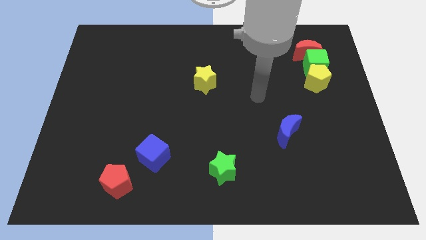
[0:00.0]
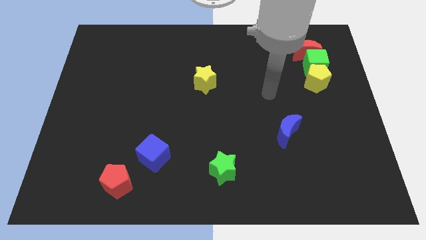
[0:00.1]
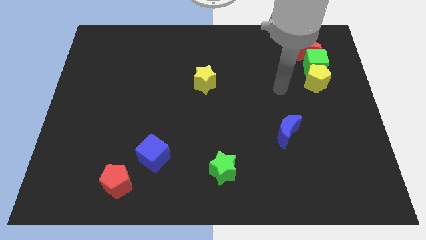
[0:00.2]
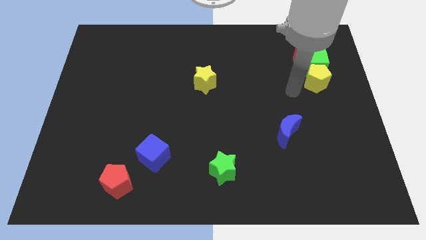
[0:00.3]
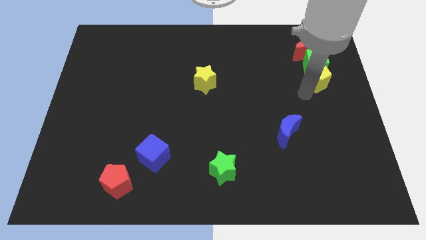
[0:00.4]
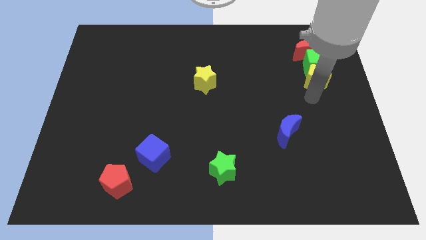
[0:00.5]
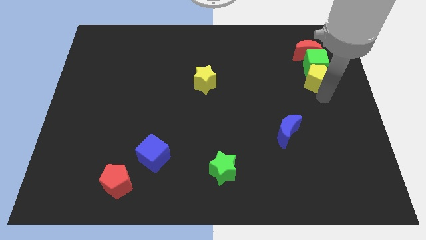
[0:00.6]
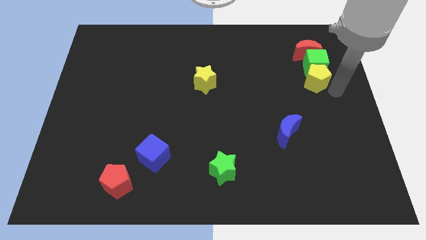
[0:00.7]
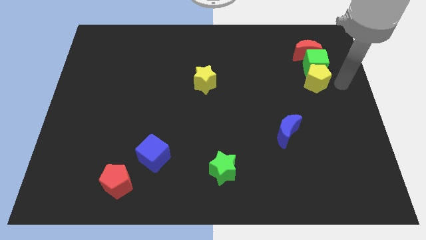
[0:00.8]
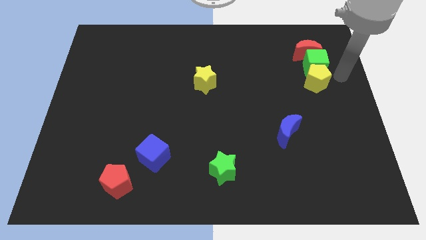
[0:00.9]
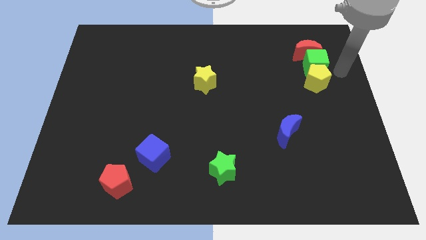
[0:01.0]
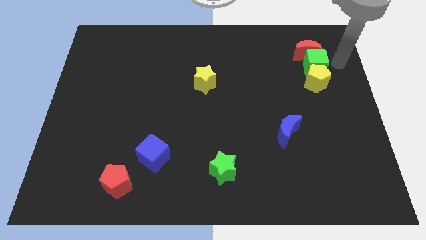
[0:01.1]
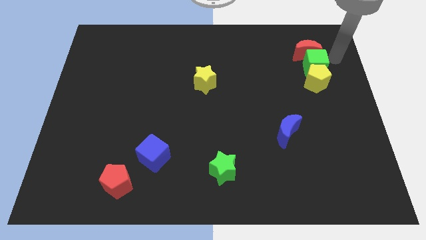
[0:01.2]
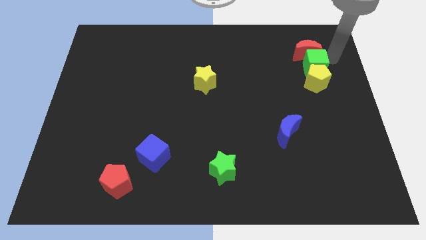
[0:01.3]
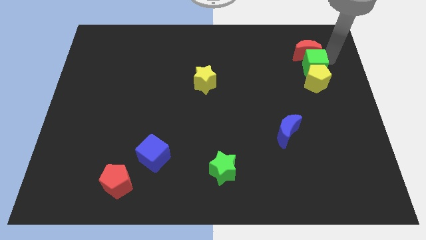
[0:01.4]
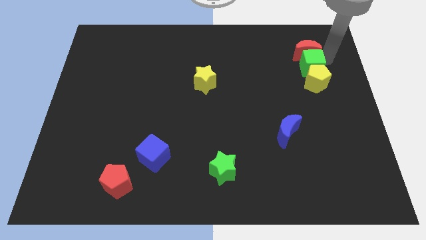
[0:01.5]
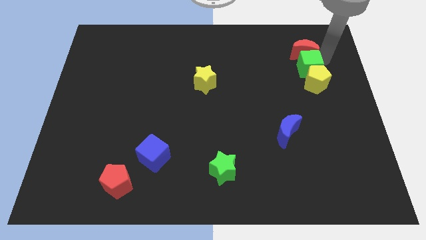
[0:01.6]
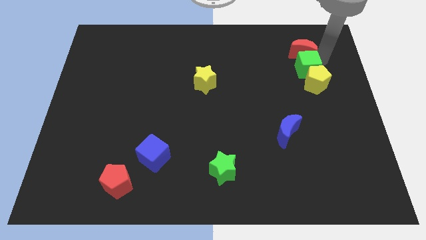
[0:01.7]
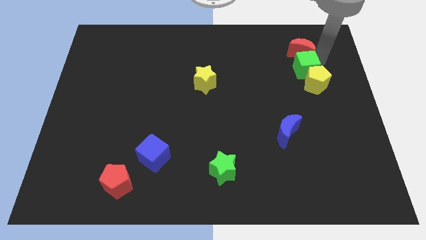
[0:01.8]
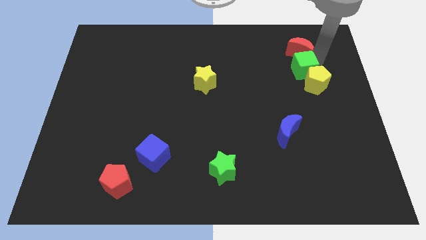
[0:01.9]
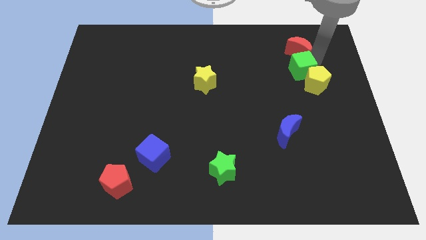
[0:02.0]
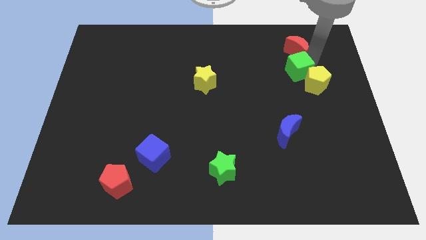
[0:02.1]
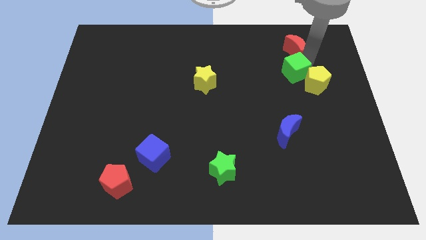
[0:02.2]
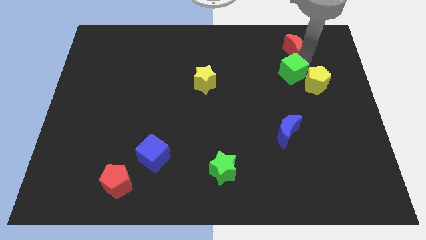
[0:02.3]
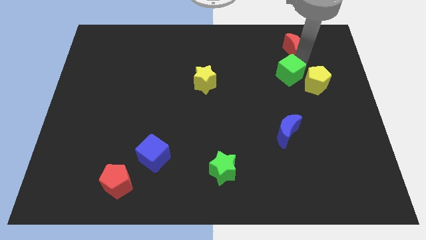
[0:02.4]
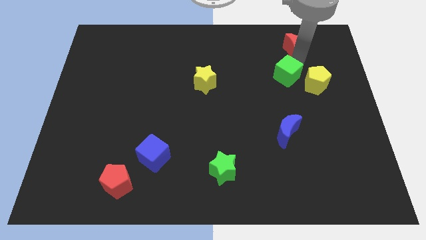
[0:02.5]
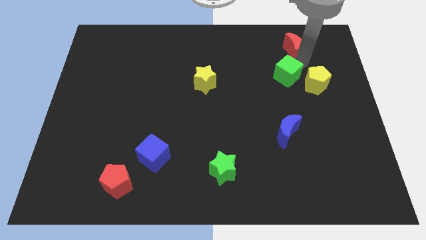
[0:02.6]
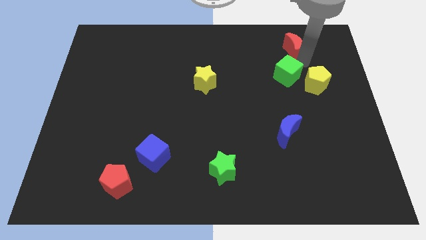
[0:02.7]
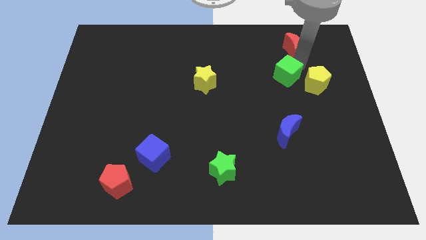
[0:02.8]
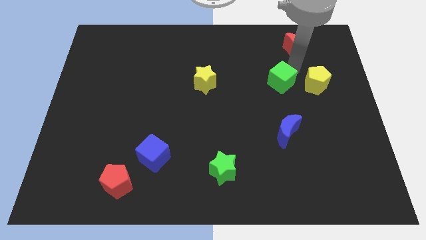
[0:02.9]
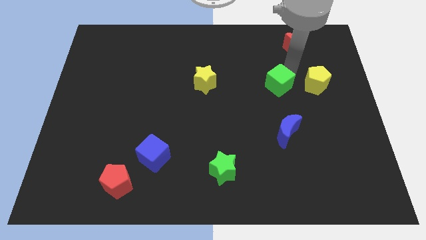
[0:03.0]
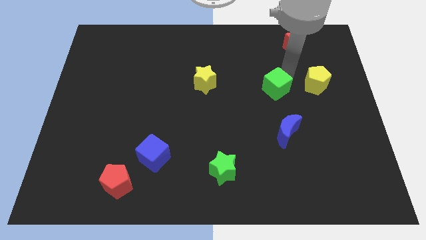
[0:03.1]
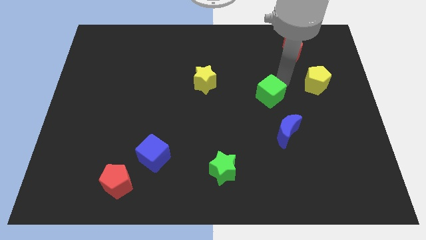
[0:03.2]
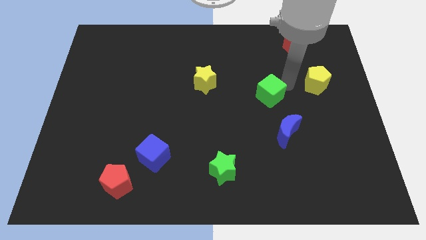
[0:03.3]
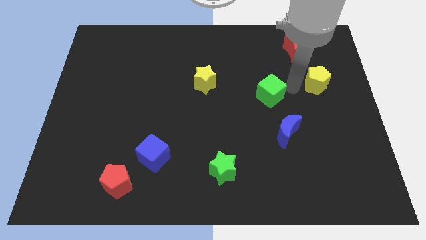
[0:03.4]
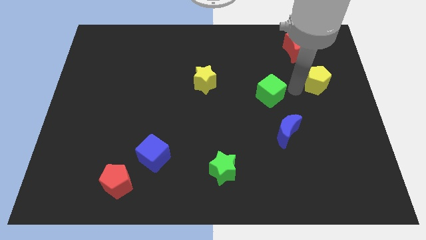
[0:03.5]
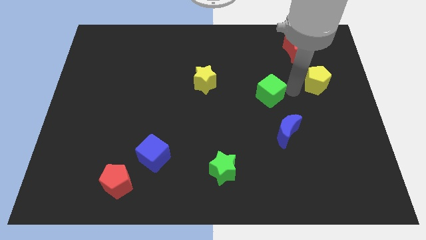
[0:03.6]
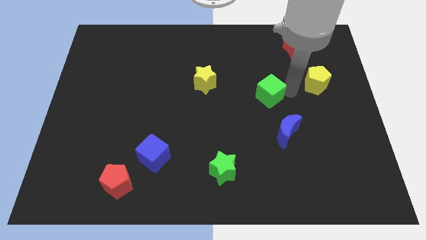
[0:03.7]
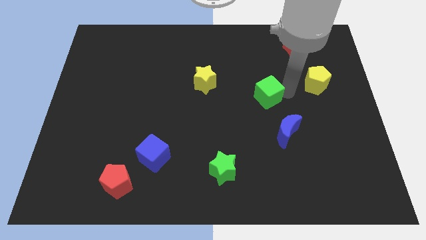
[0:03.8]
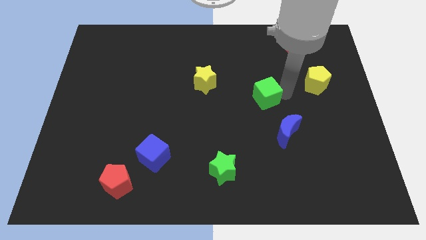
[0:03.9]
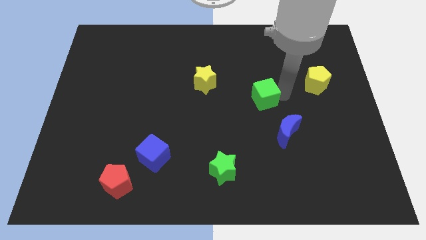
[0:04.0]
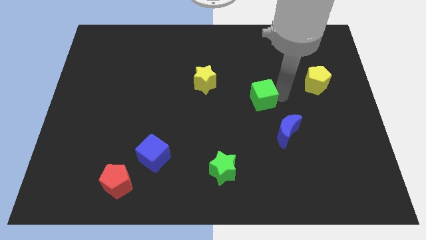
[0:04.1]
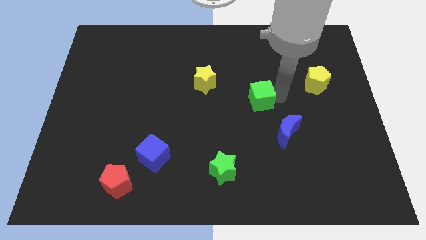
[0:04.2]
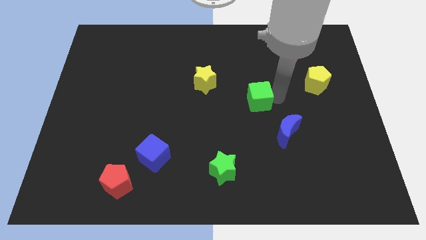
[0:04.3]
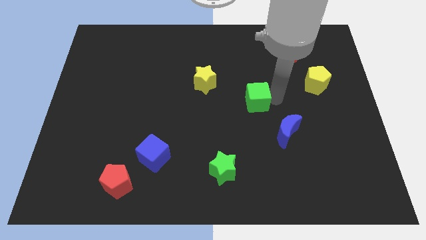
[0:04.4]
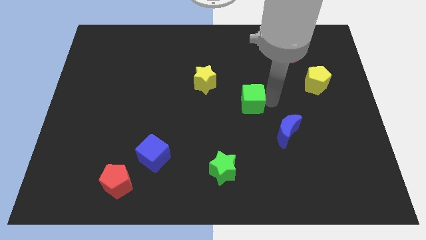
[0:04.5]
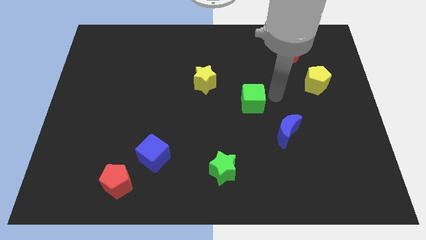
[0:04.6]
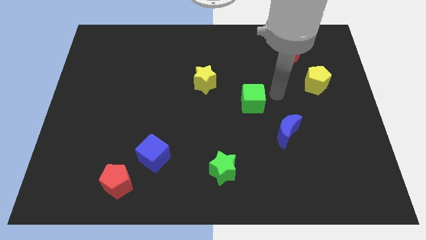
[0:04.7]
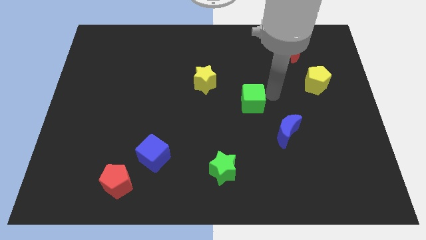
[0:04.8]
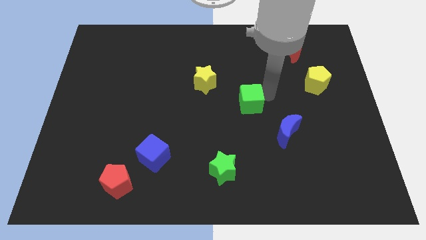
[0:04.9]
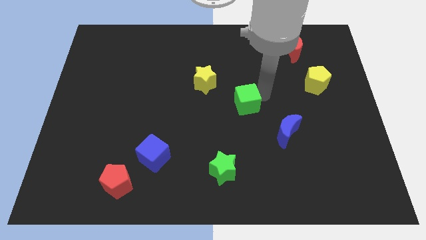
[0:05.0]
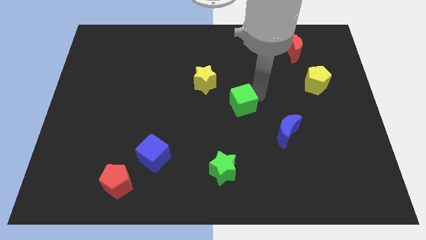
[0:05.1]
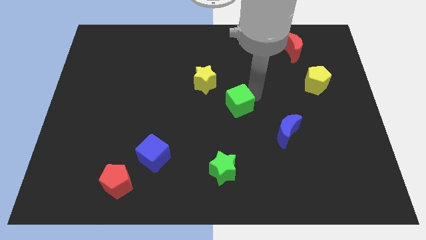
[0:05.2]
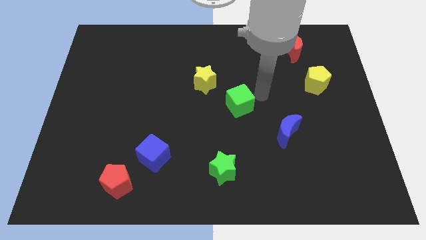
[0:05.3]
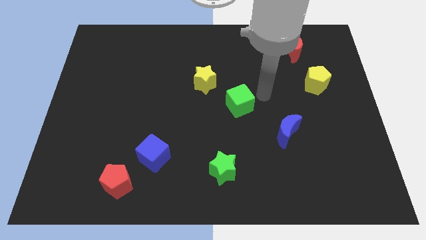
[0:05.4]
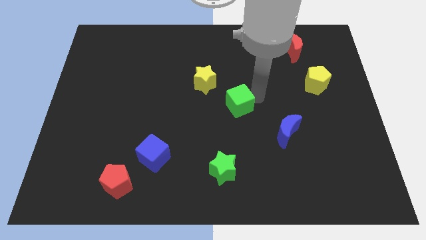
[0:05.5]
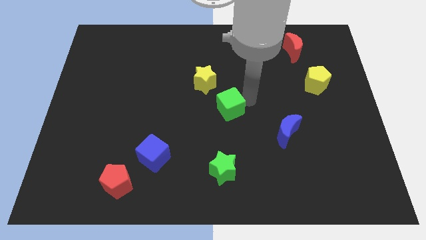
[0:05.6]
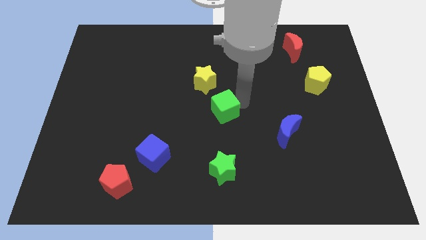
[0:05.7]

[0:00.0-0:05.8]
slide the green cube below the yellow star
